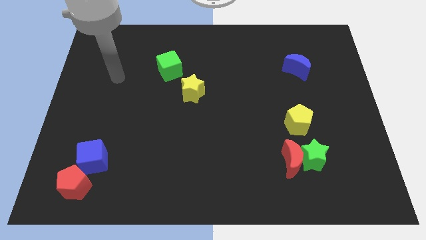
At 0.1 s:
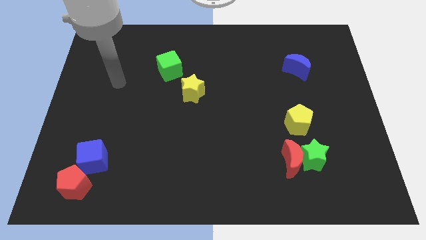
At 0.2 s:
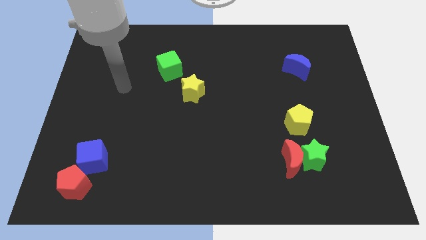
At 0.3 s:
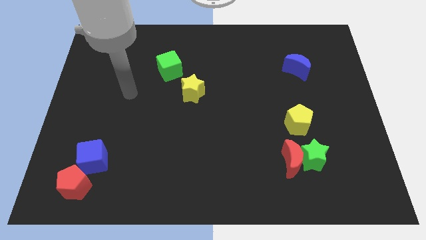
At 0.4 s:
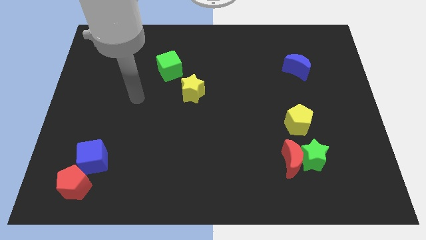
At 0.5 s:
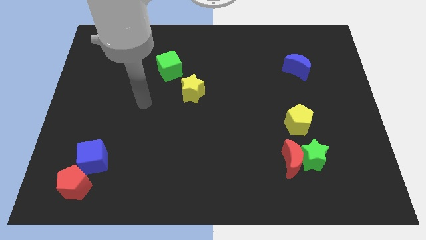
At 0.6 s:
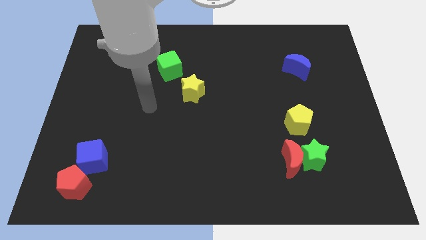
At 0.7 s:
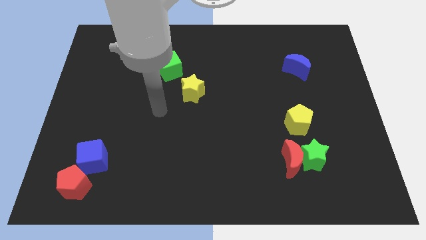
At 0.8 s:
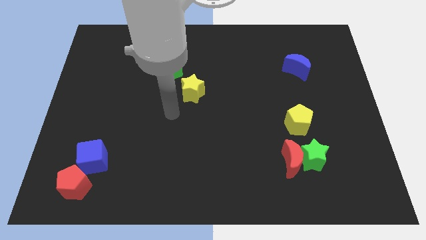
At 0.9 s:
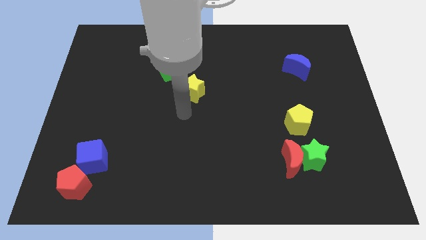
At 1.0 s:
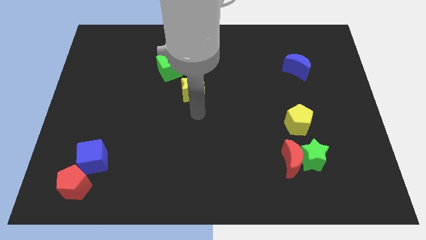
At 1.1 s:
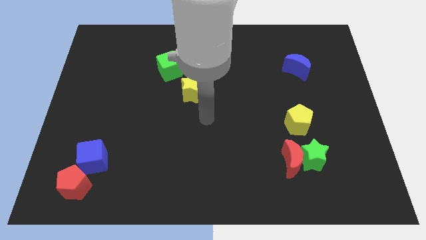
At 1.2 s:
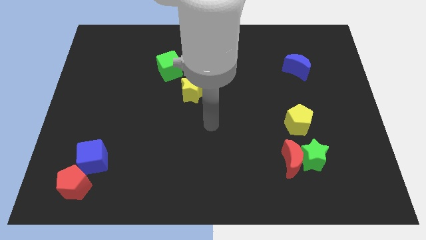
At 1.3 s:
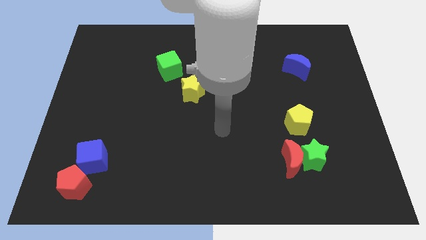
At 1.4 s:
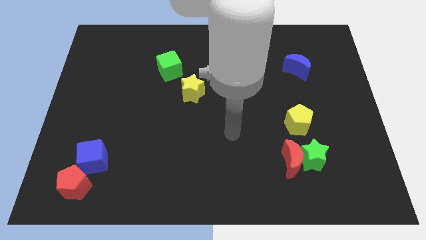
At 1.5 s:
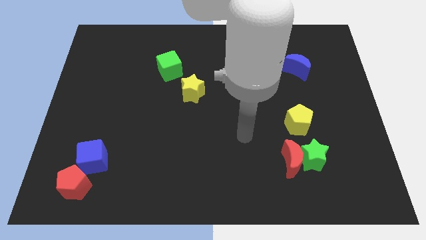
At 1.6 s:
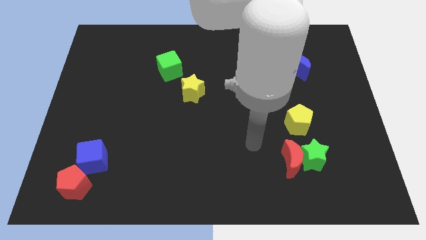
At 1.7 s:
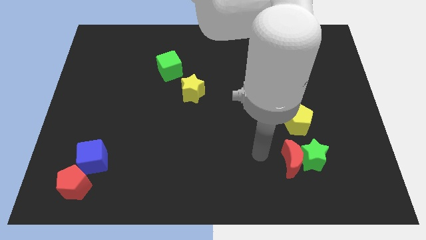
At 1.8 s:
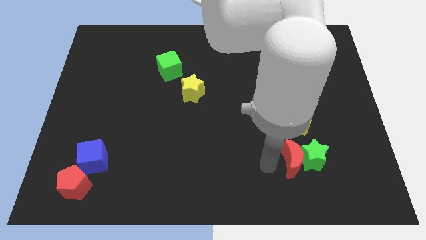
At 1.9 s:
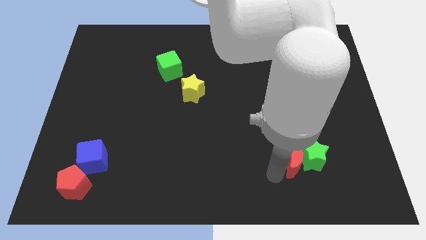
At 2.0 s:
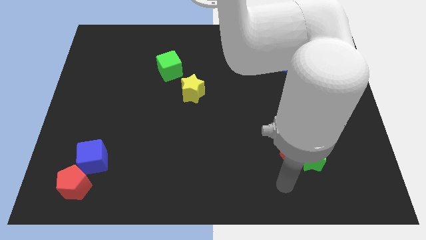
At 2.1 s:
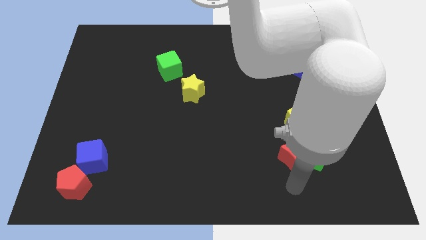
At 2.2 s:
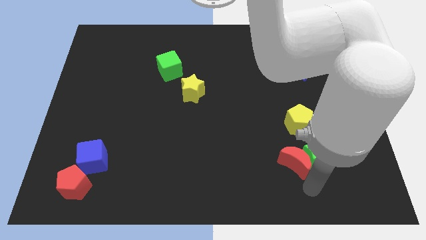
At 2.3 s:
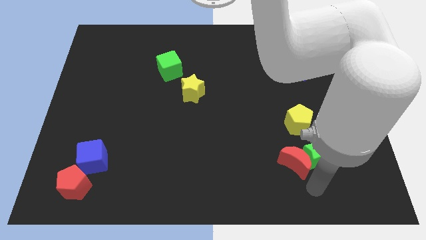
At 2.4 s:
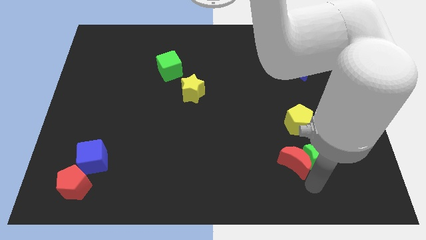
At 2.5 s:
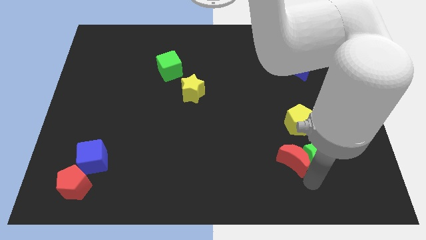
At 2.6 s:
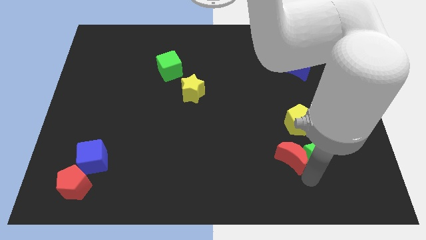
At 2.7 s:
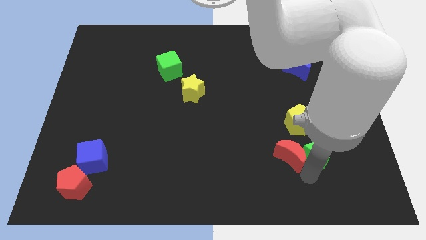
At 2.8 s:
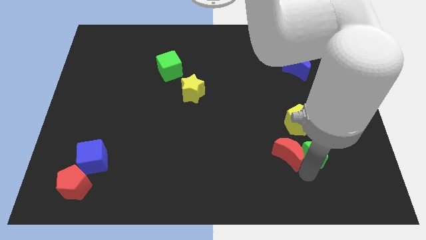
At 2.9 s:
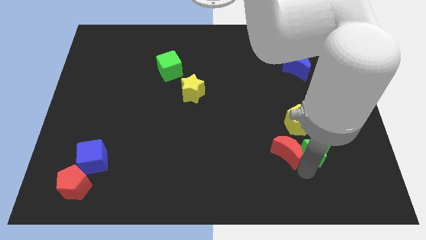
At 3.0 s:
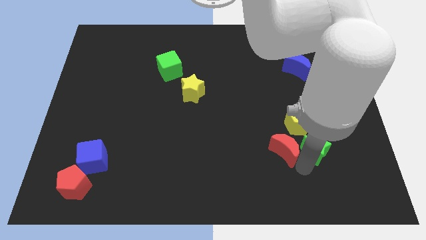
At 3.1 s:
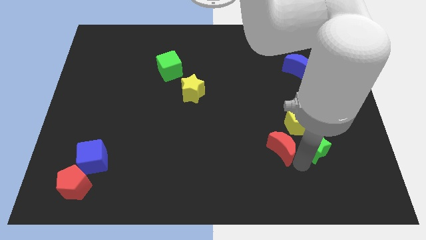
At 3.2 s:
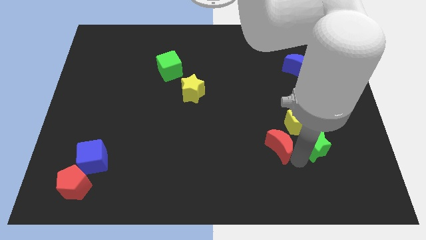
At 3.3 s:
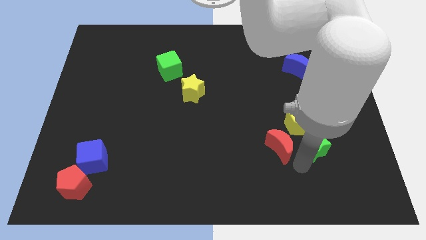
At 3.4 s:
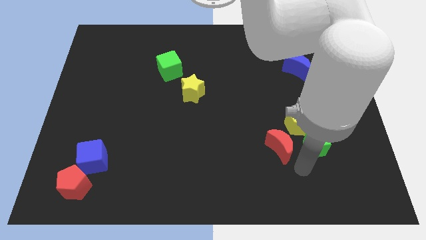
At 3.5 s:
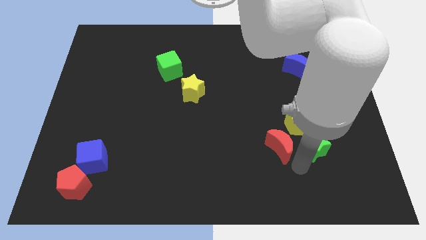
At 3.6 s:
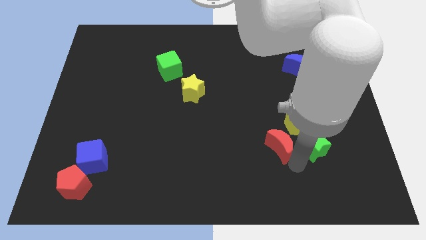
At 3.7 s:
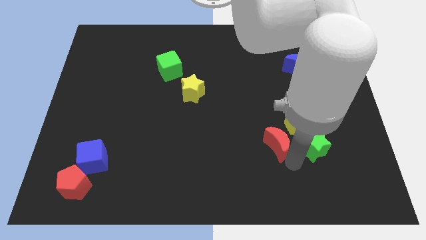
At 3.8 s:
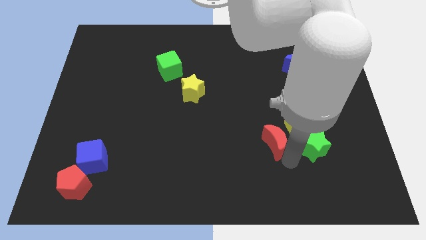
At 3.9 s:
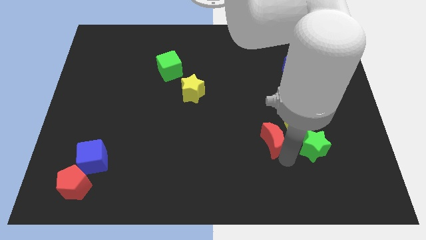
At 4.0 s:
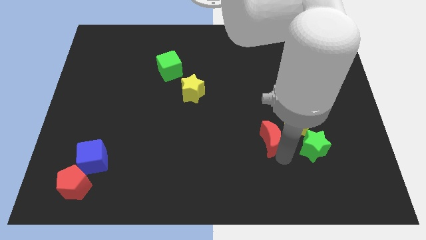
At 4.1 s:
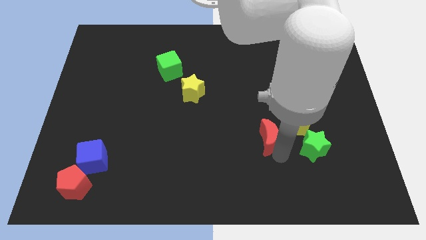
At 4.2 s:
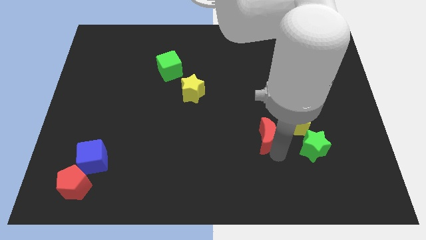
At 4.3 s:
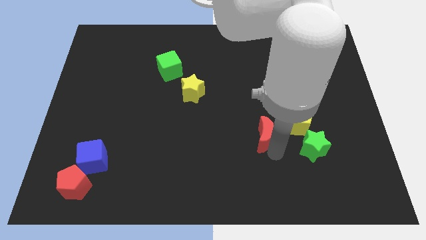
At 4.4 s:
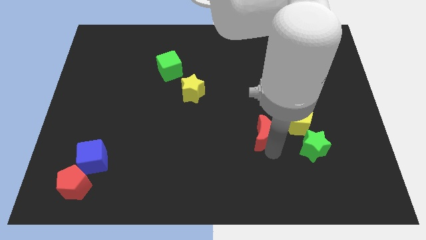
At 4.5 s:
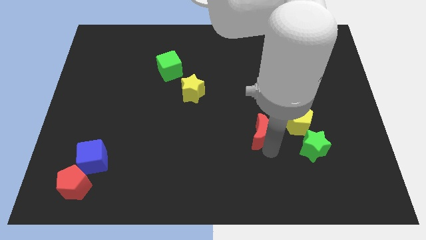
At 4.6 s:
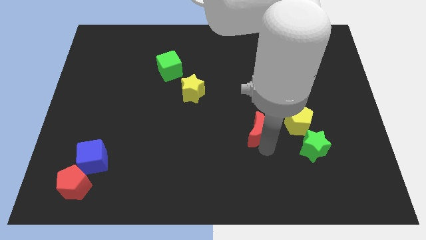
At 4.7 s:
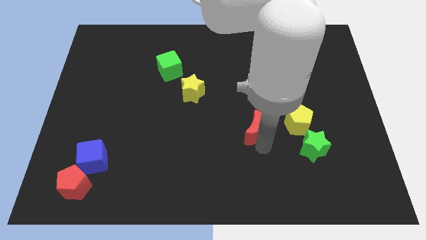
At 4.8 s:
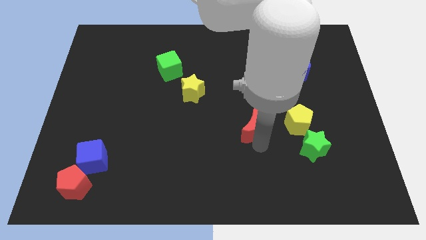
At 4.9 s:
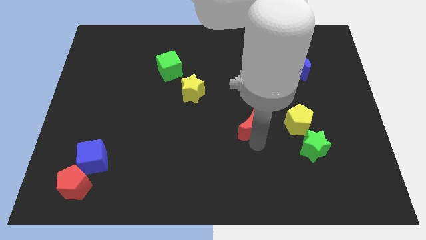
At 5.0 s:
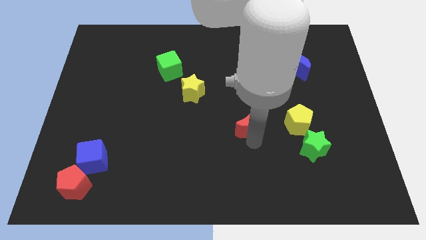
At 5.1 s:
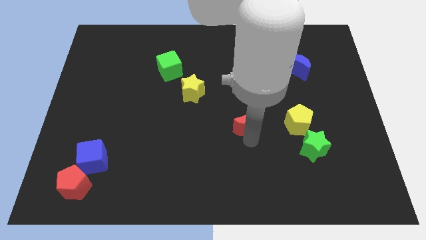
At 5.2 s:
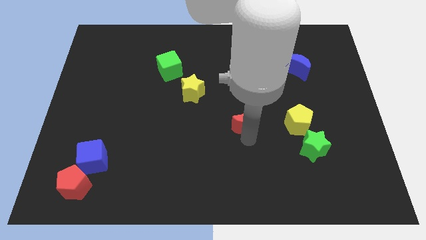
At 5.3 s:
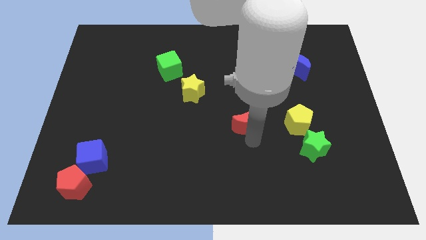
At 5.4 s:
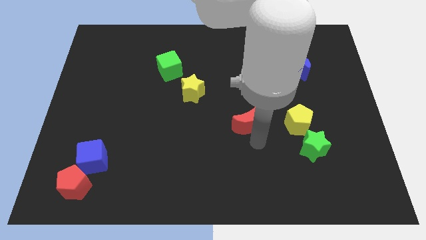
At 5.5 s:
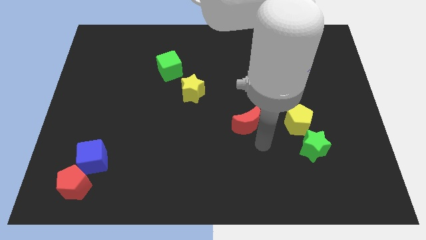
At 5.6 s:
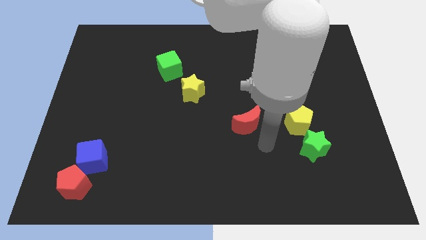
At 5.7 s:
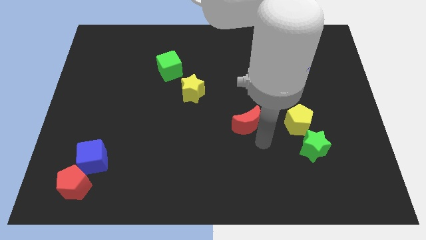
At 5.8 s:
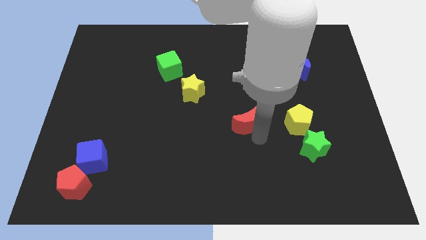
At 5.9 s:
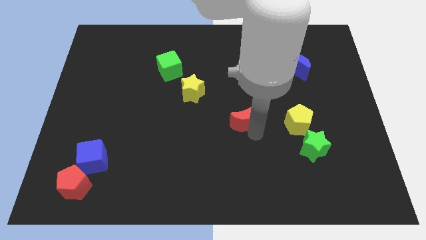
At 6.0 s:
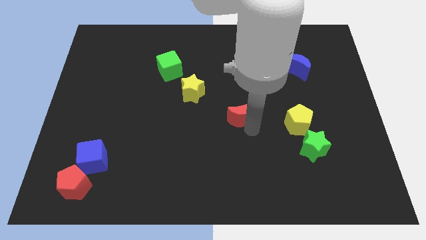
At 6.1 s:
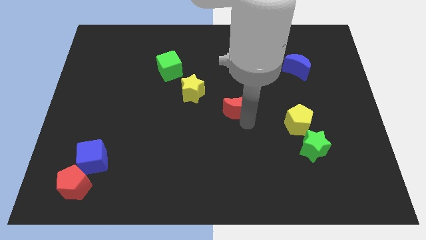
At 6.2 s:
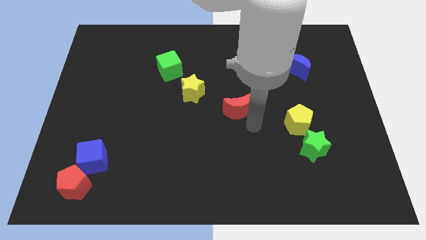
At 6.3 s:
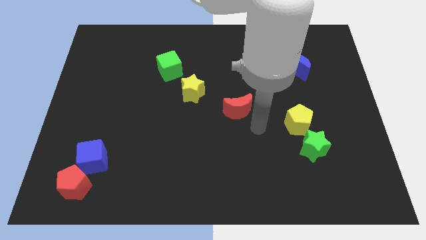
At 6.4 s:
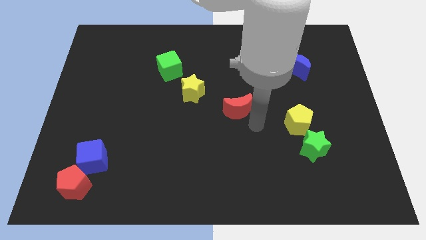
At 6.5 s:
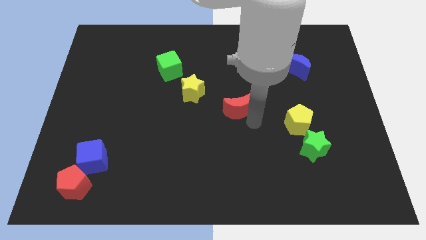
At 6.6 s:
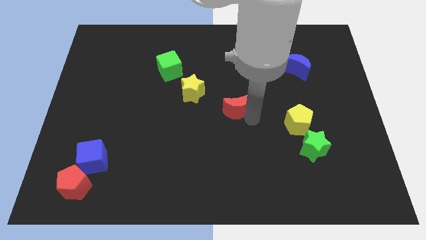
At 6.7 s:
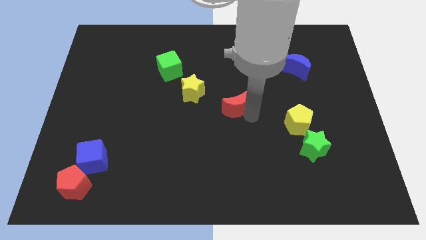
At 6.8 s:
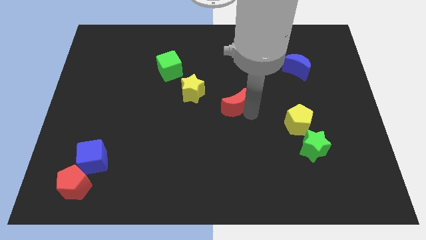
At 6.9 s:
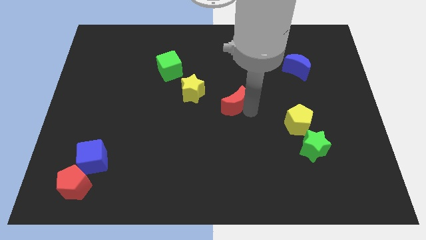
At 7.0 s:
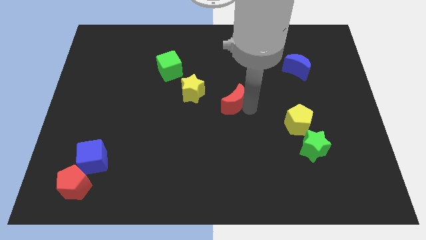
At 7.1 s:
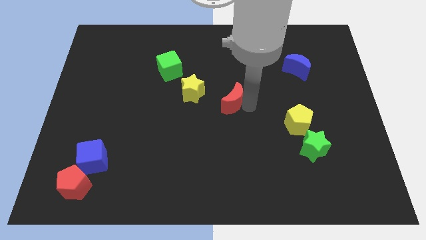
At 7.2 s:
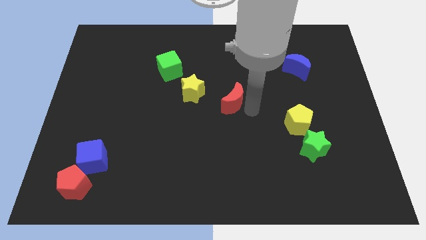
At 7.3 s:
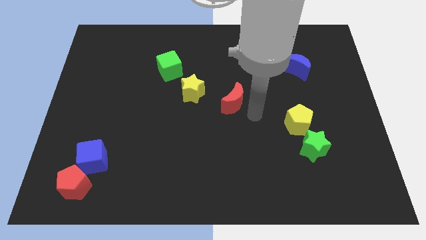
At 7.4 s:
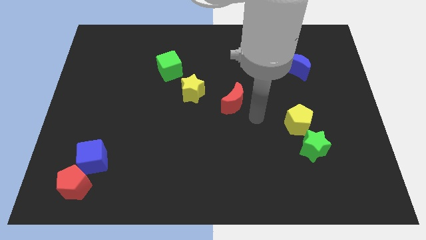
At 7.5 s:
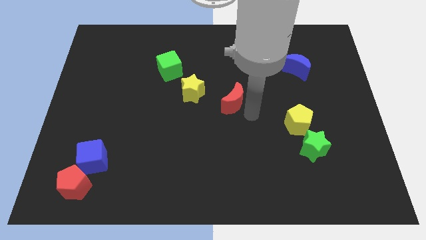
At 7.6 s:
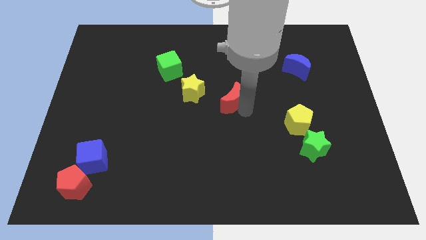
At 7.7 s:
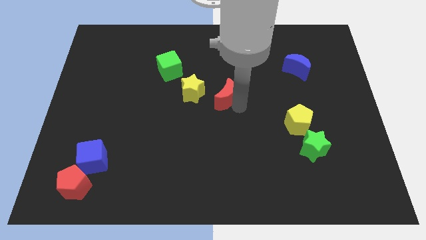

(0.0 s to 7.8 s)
slide the red moon up and to the left diagonally

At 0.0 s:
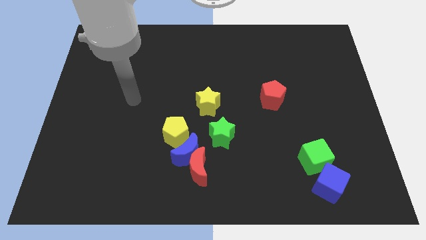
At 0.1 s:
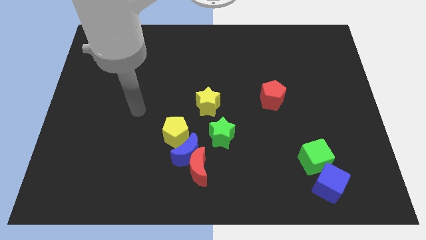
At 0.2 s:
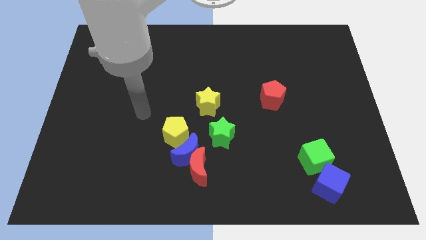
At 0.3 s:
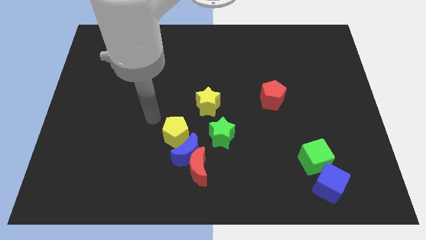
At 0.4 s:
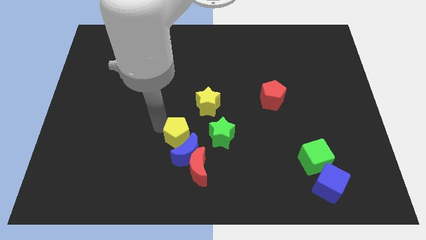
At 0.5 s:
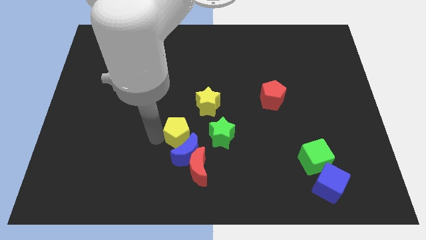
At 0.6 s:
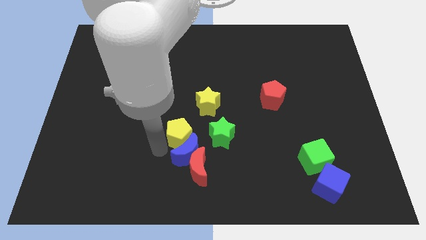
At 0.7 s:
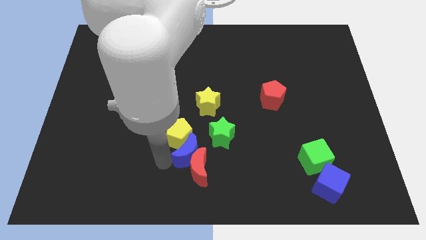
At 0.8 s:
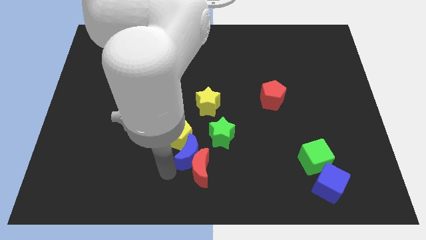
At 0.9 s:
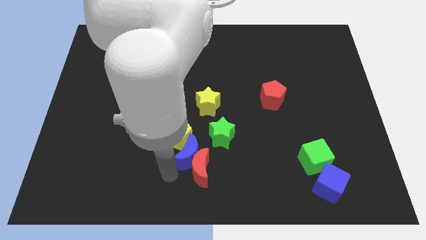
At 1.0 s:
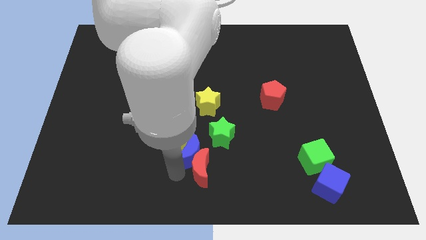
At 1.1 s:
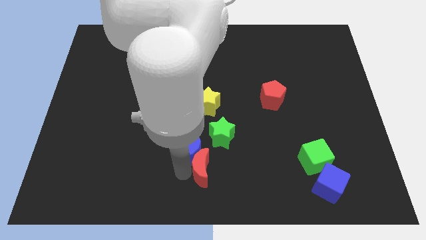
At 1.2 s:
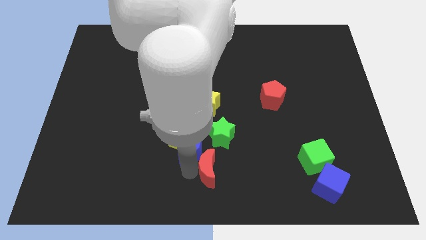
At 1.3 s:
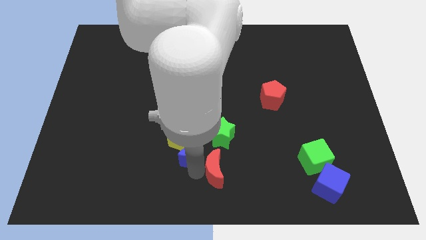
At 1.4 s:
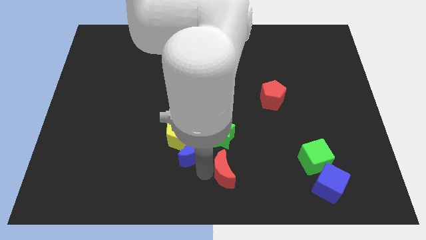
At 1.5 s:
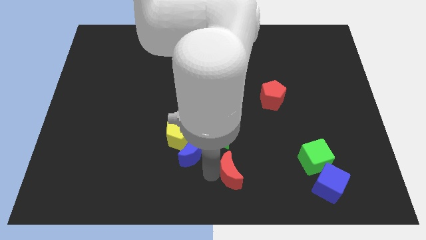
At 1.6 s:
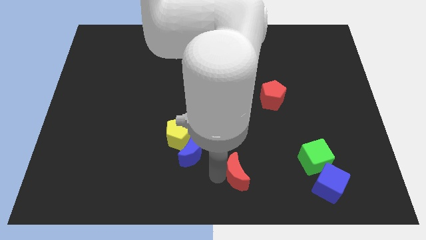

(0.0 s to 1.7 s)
move the red moon to the right a little bit
